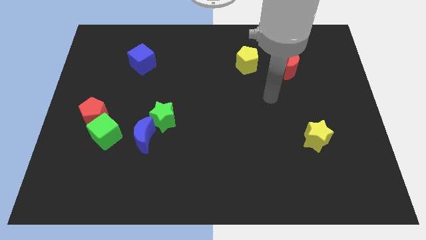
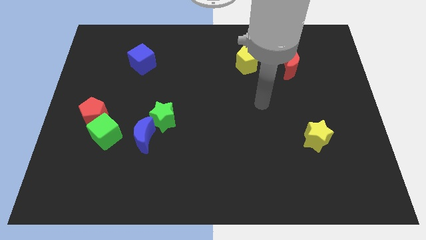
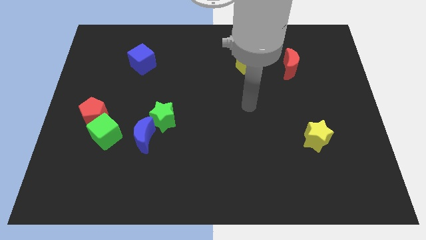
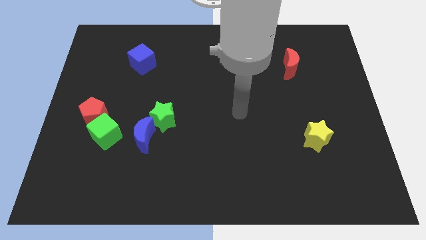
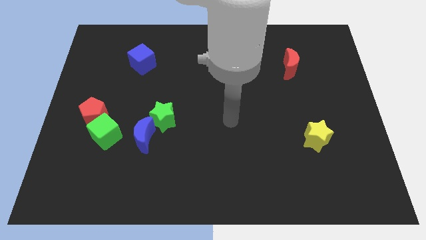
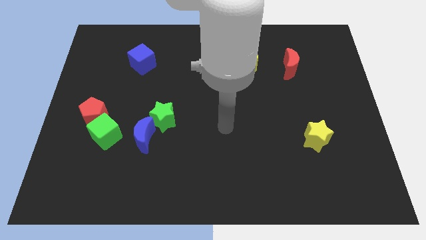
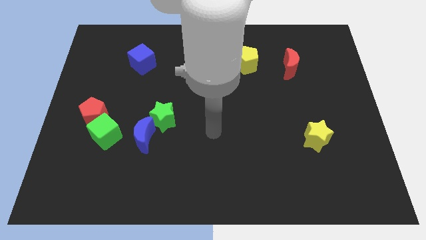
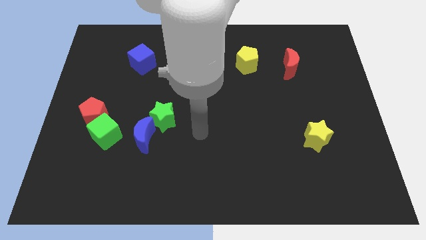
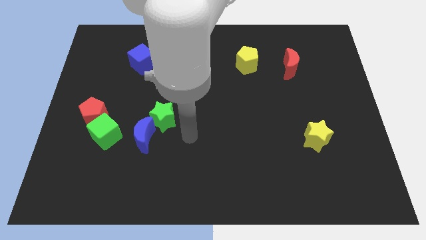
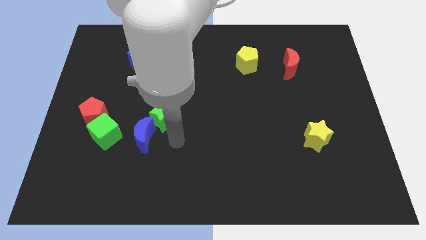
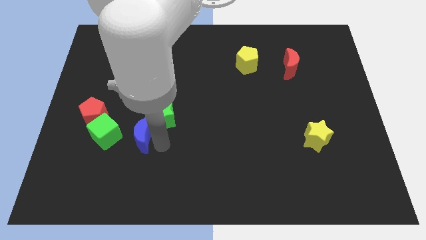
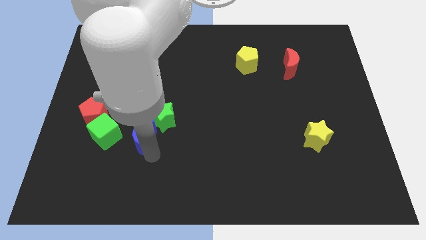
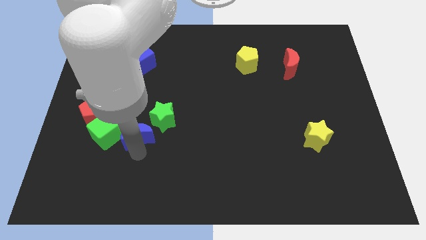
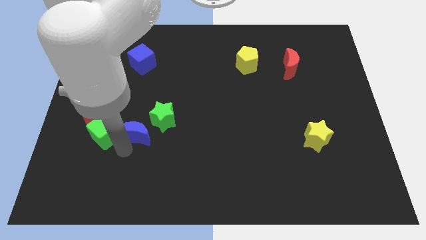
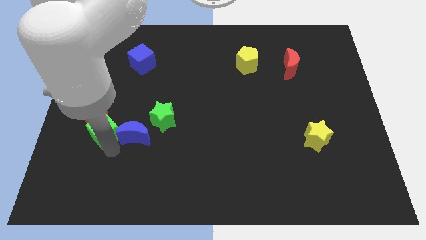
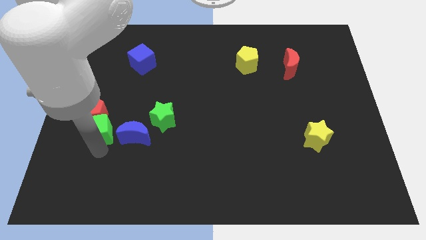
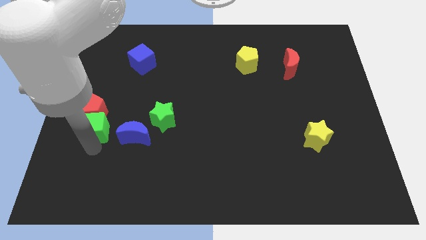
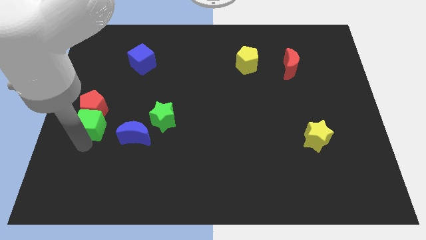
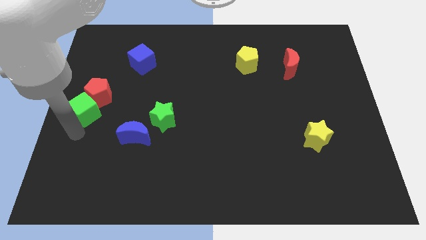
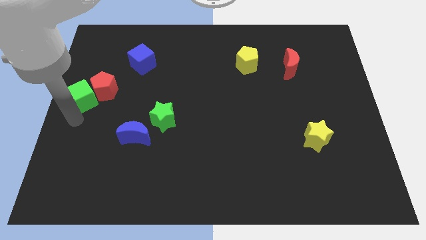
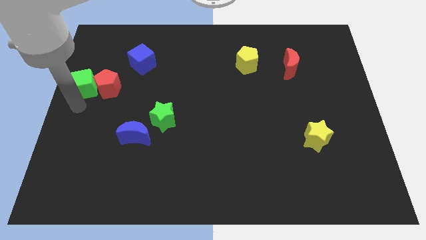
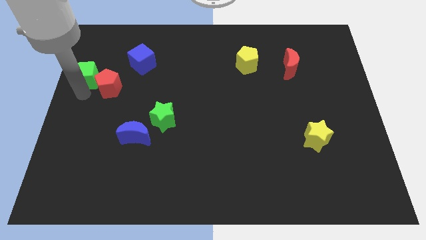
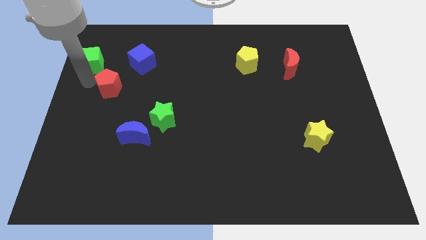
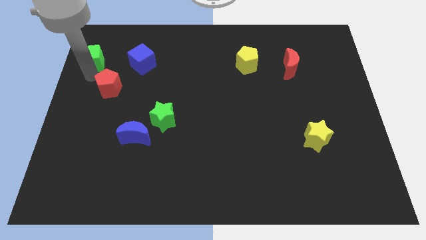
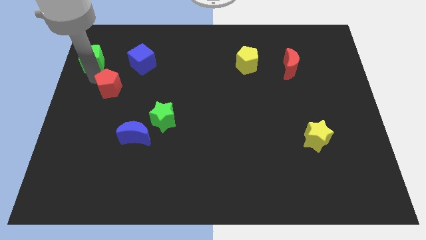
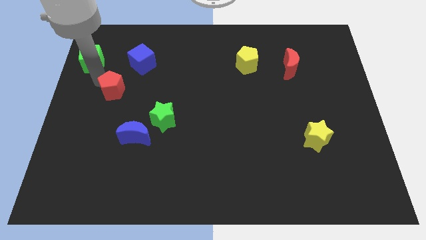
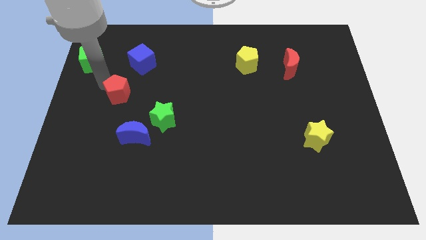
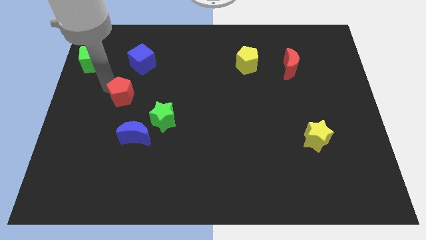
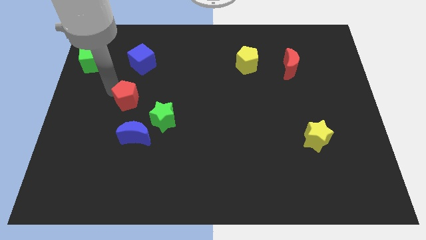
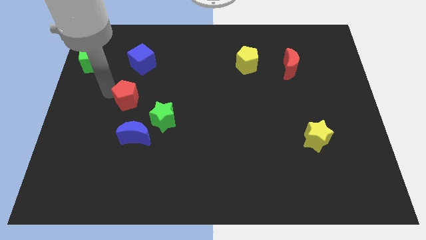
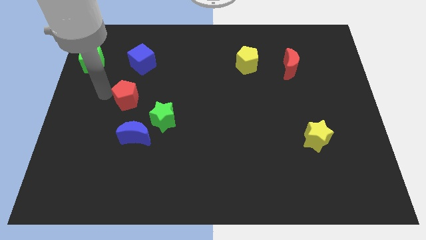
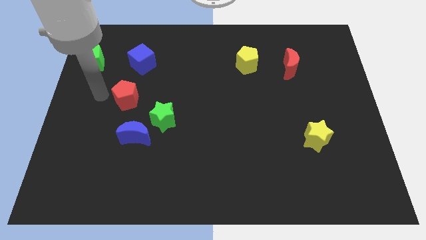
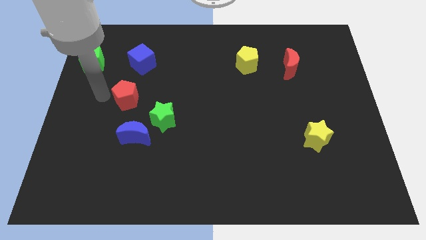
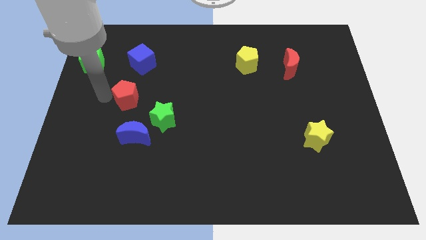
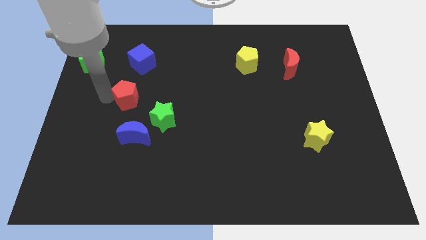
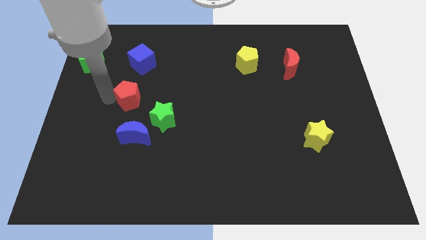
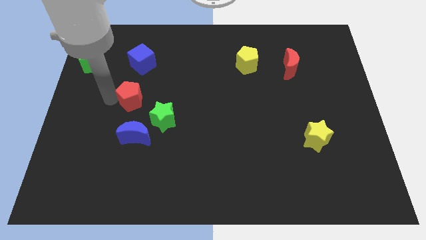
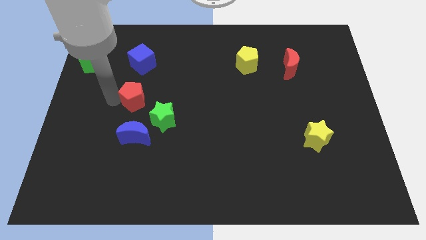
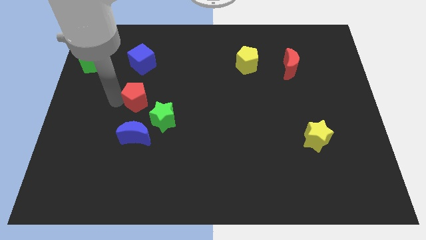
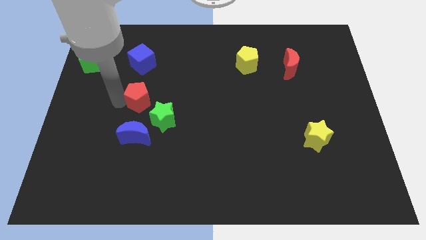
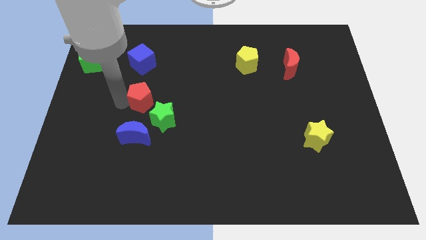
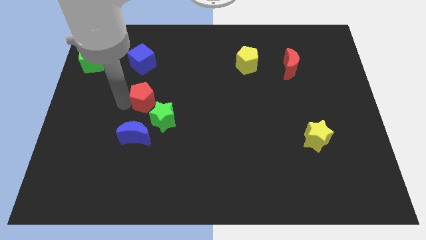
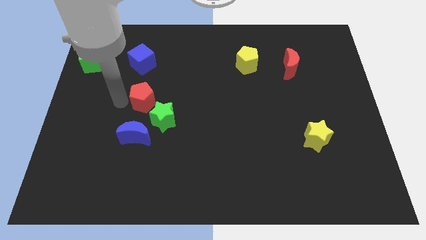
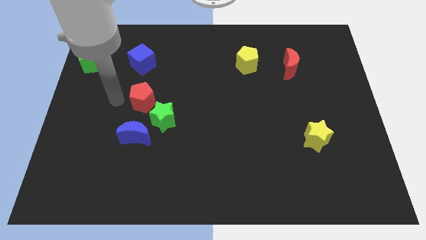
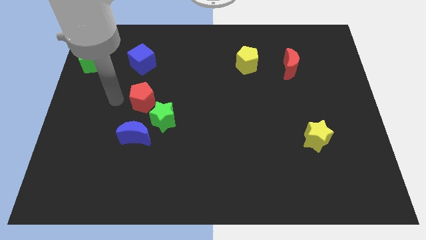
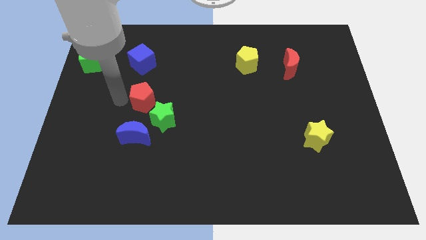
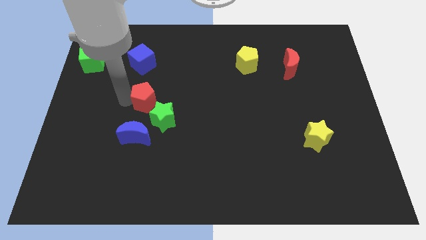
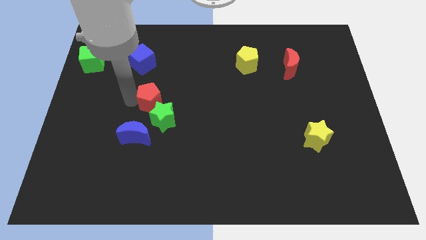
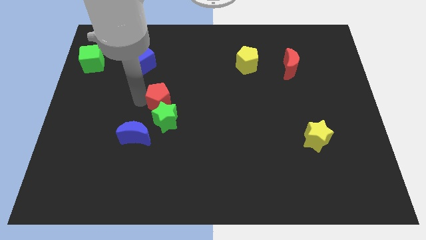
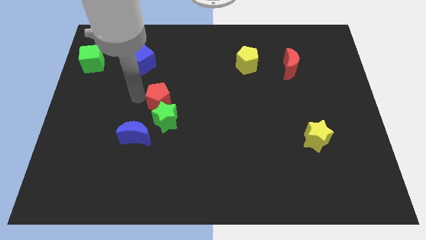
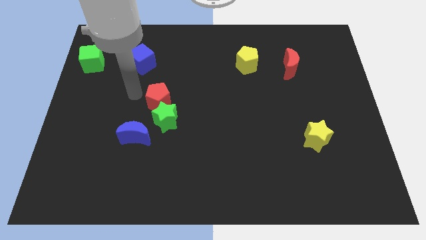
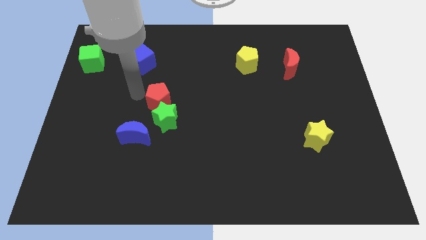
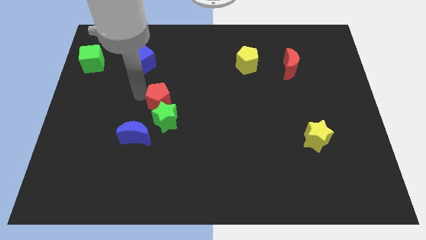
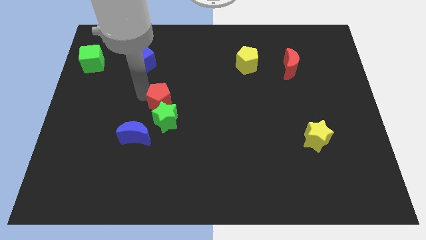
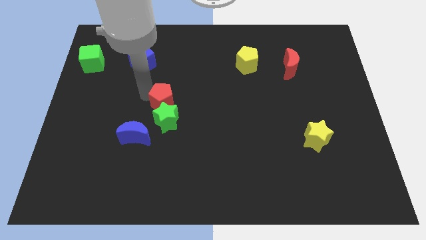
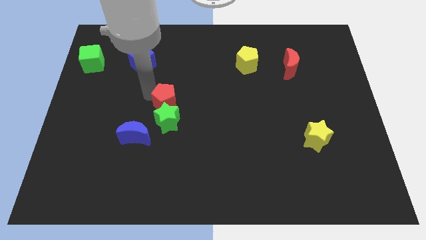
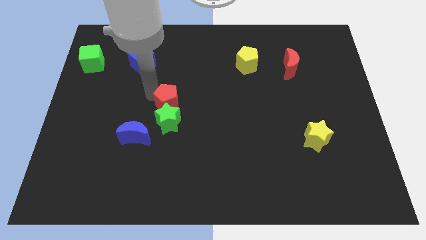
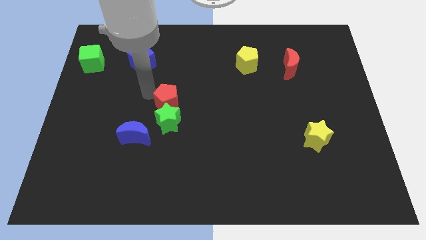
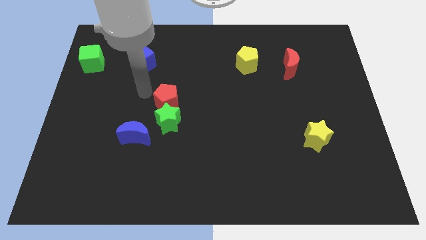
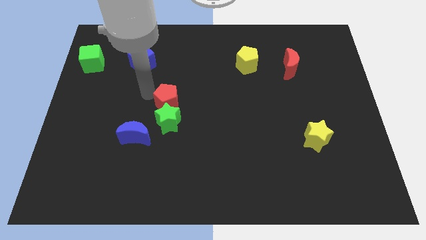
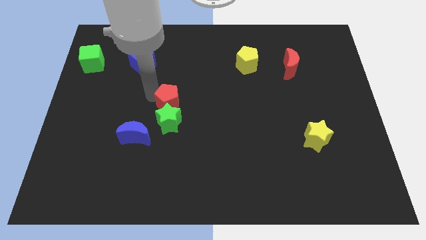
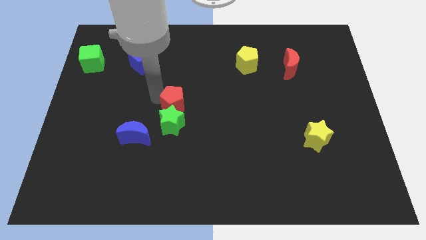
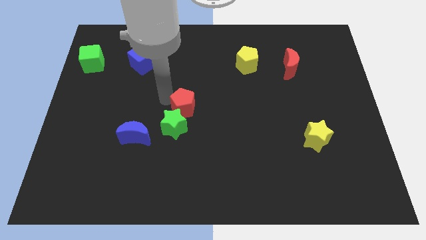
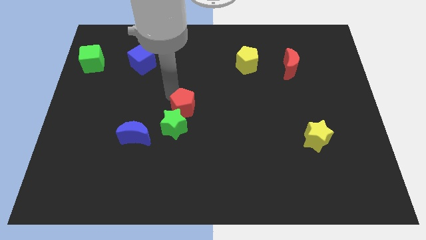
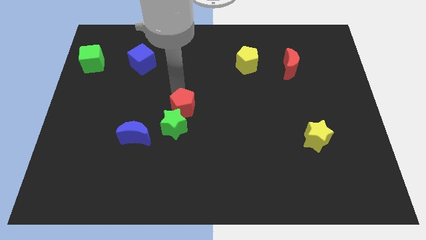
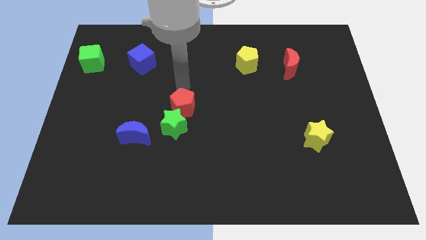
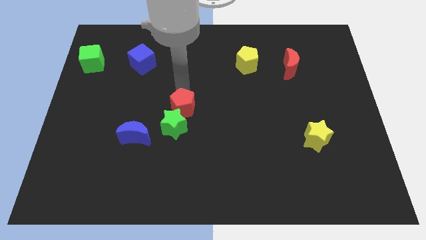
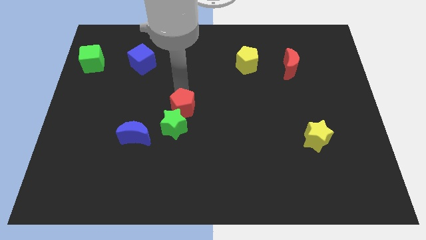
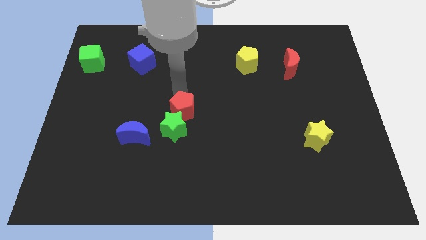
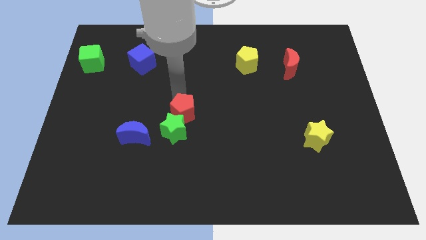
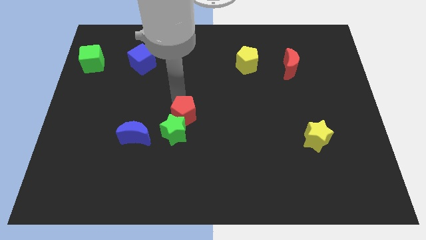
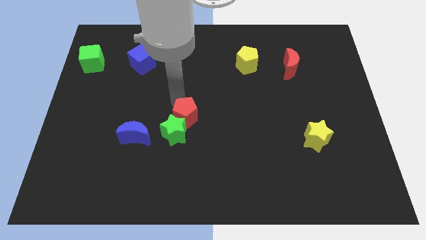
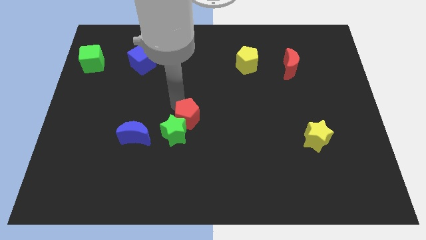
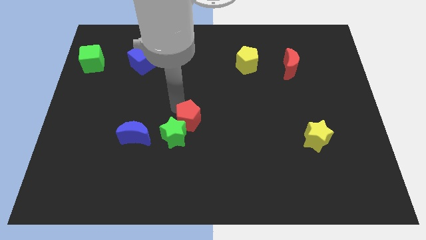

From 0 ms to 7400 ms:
move the red pentagon to the right side of the blue moon

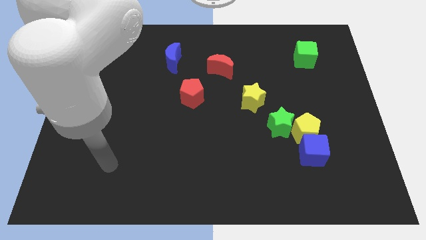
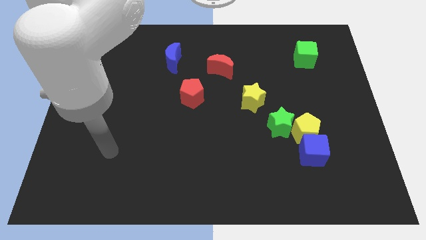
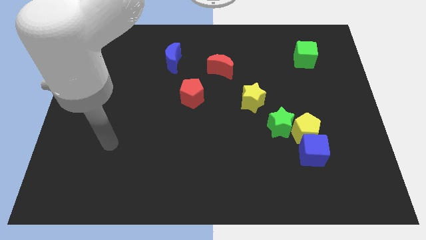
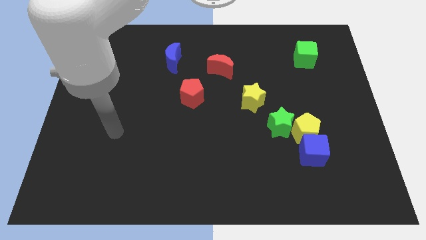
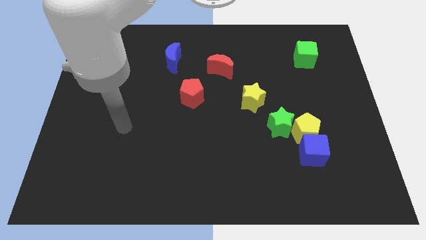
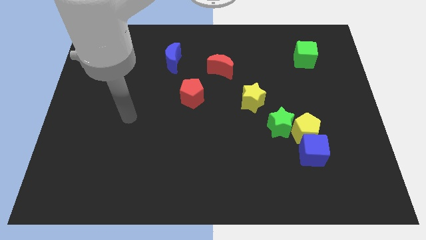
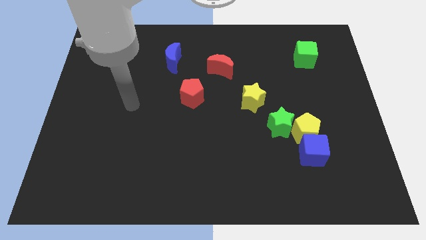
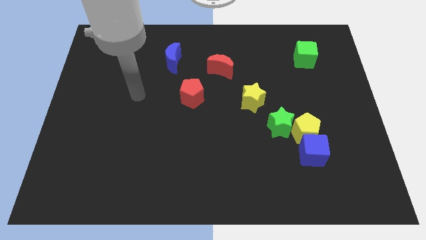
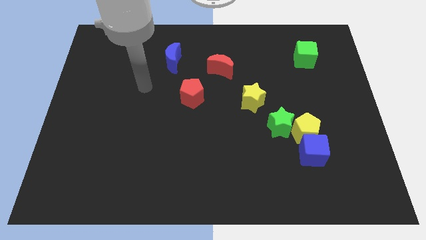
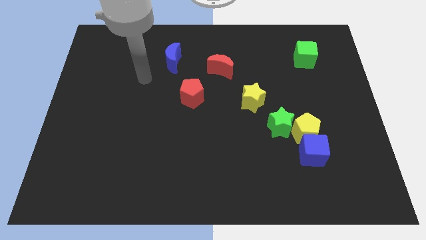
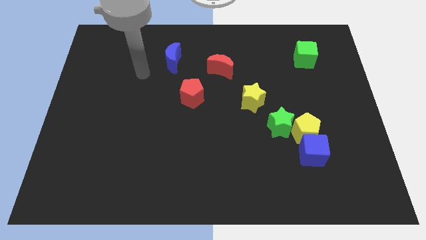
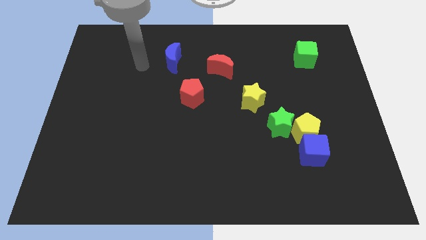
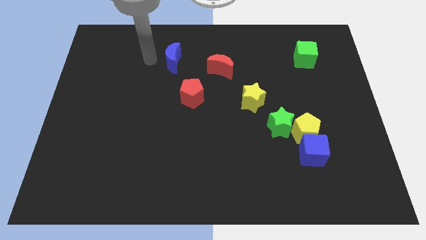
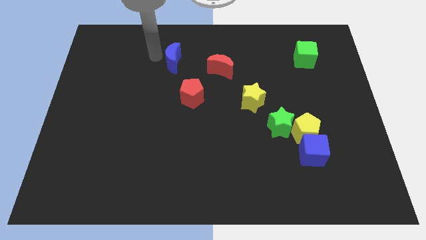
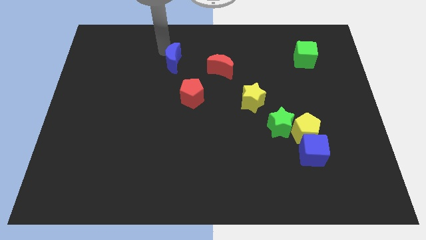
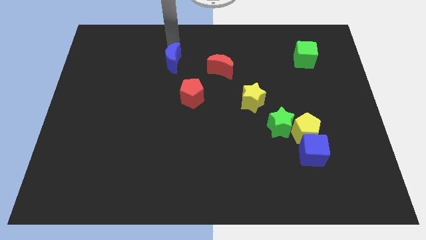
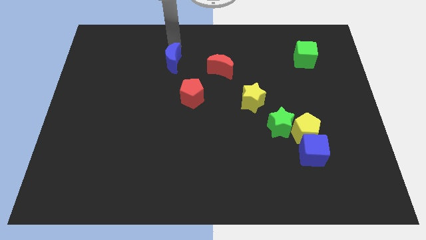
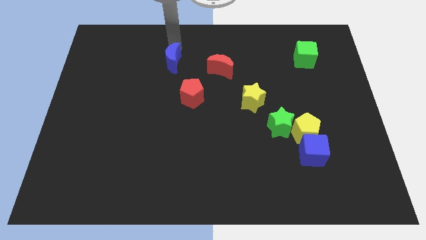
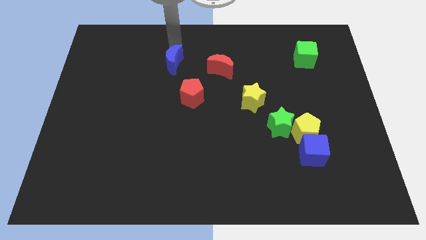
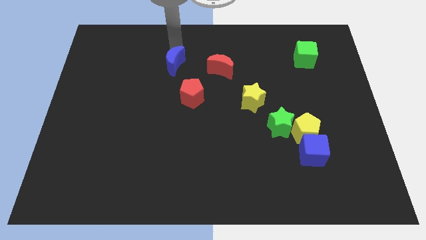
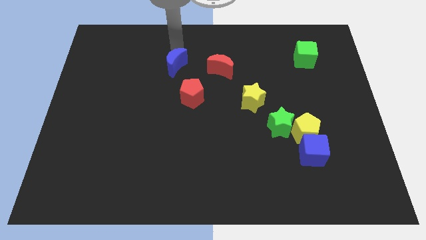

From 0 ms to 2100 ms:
move the blue moon diagonally up and to the left of the red pentagon
